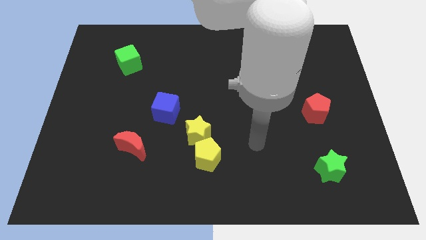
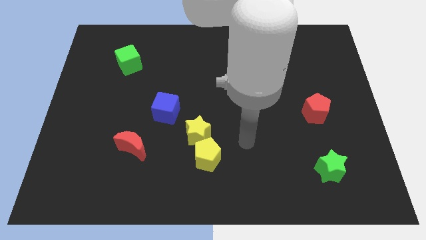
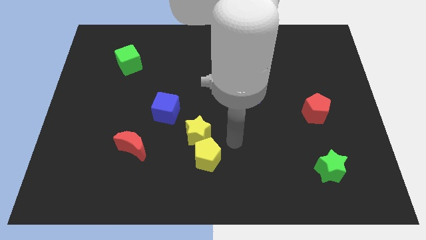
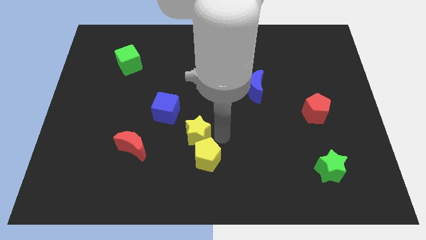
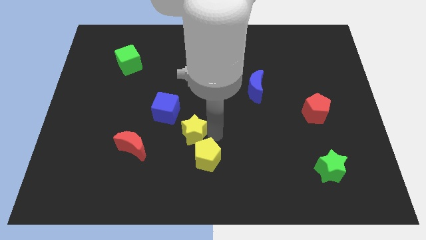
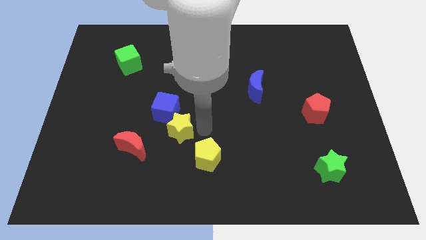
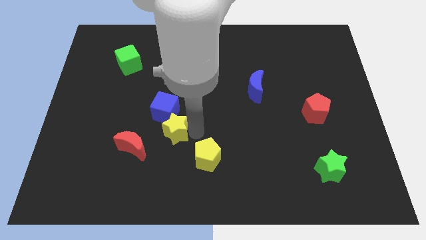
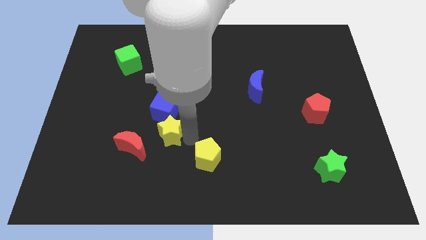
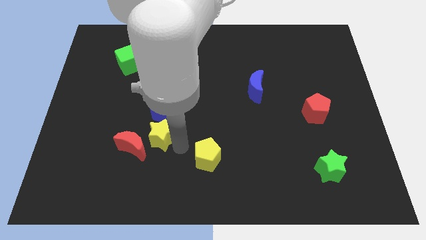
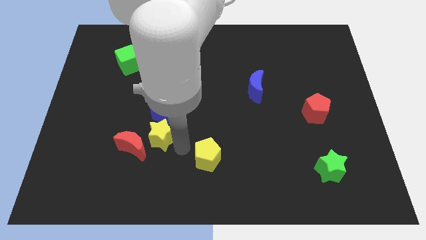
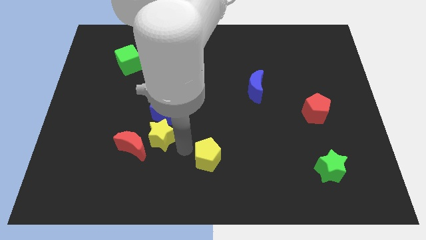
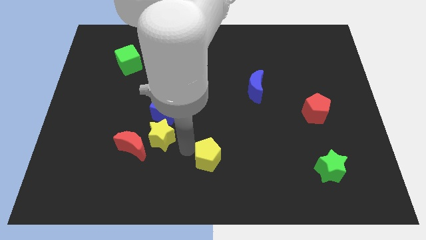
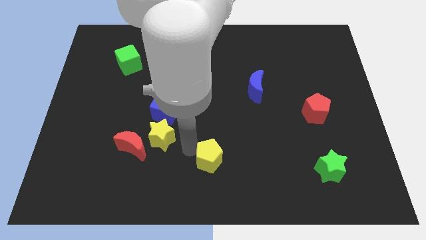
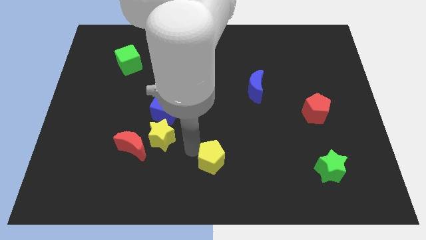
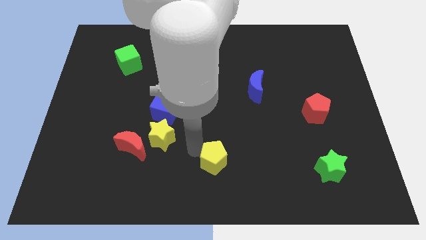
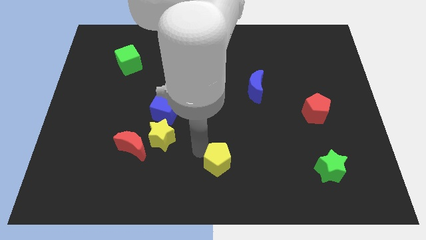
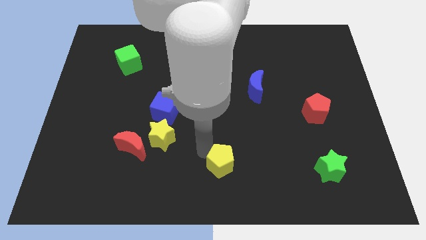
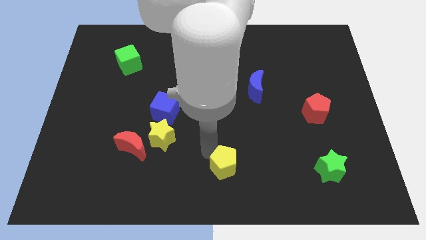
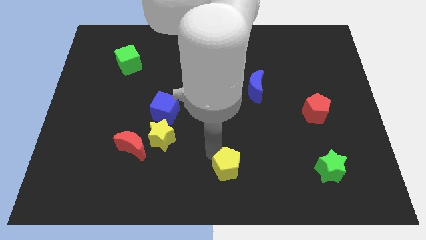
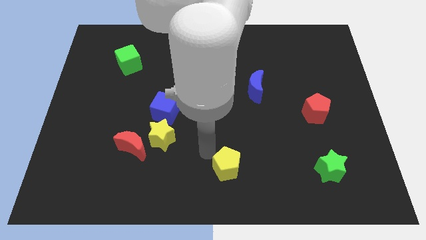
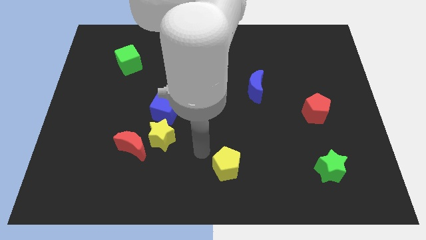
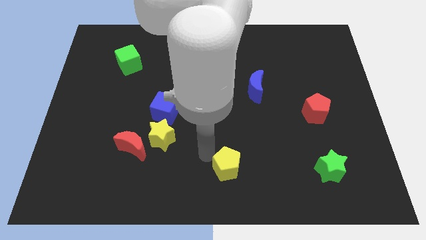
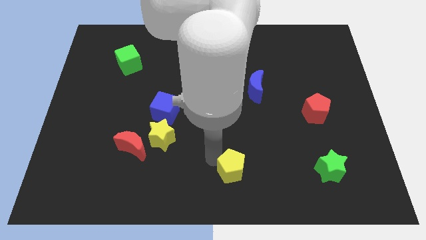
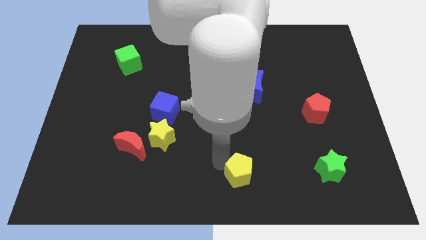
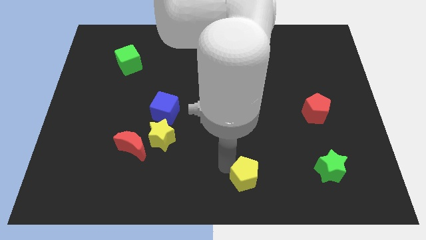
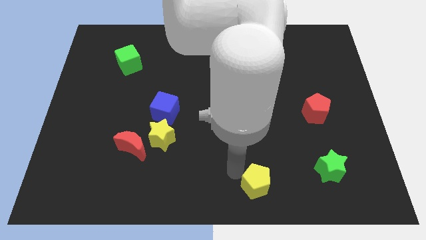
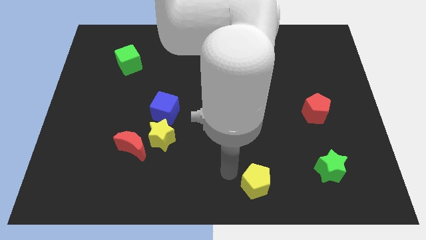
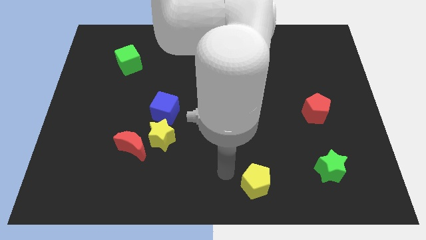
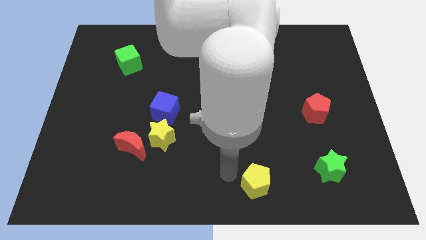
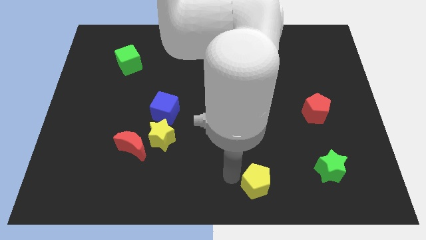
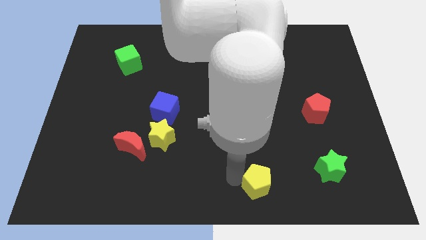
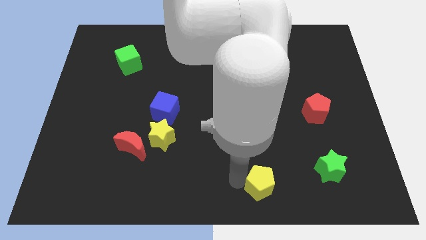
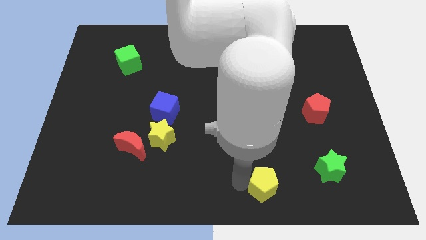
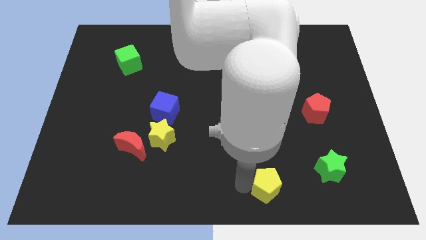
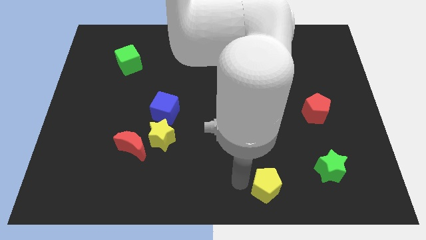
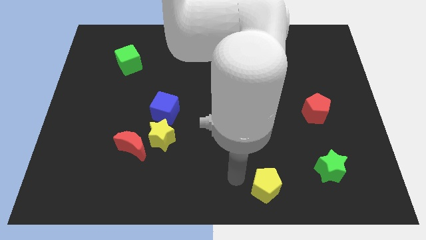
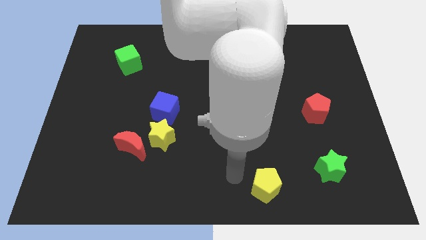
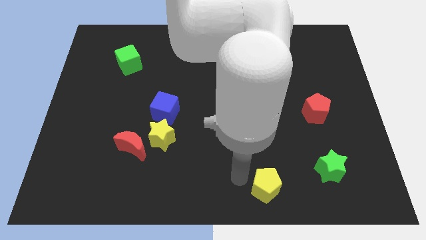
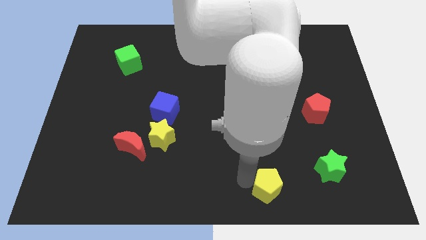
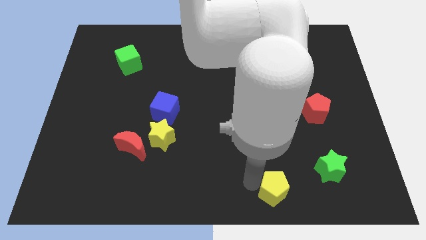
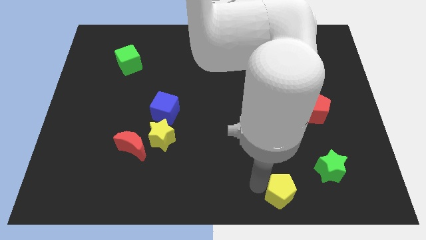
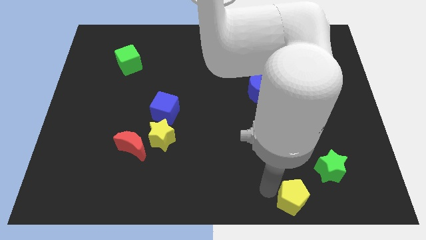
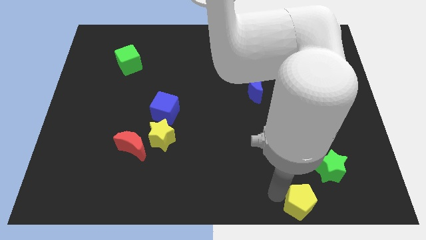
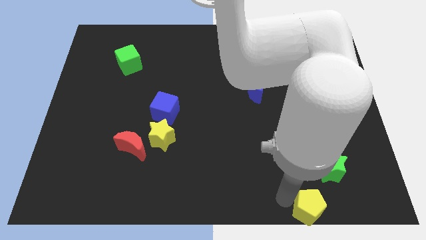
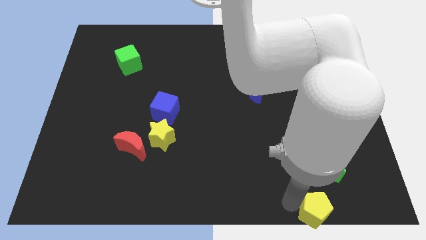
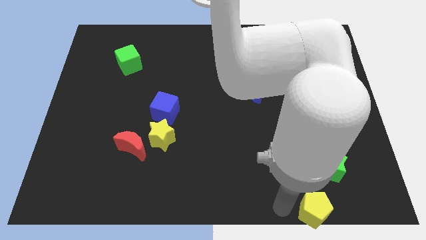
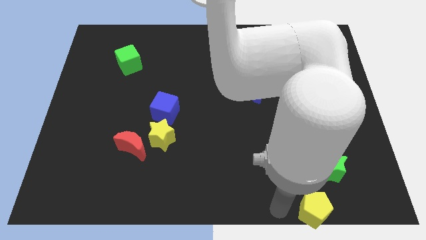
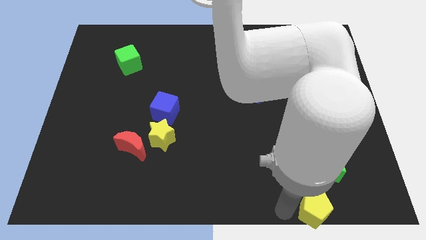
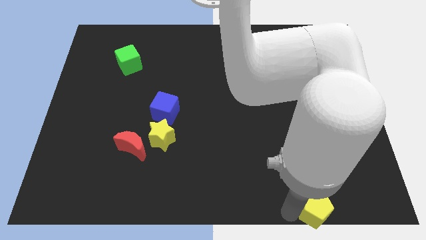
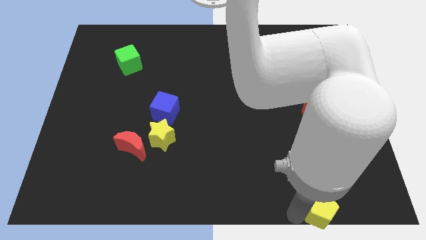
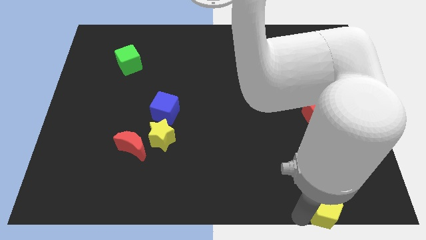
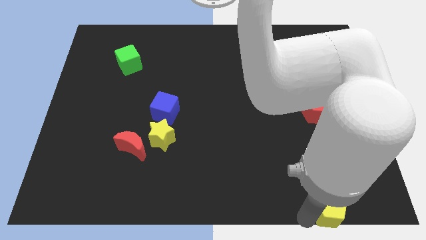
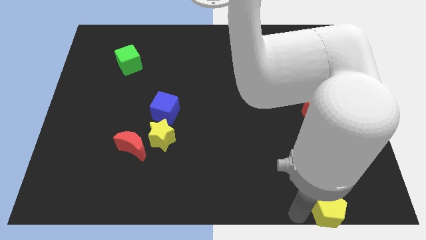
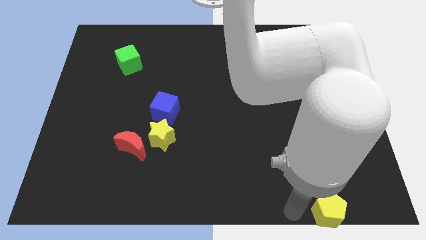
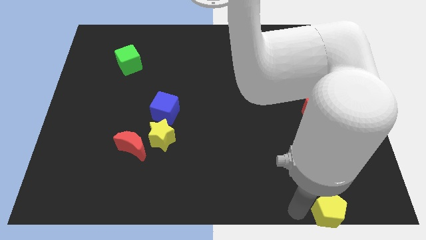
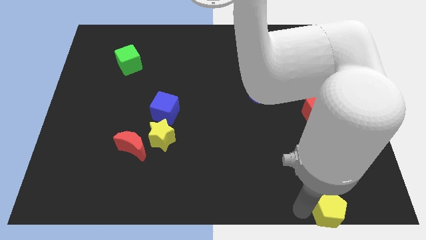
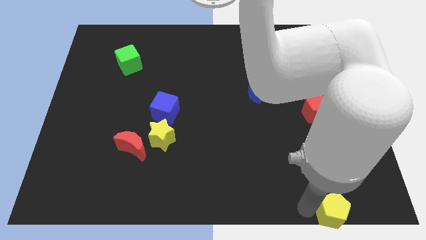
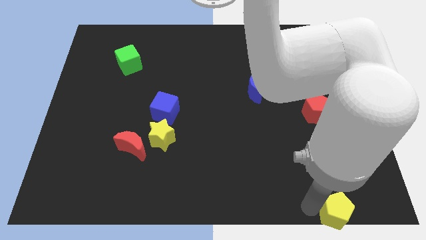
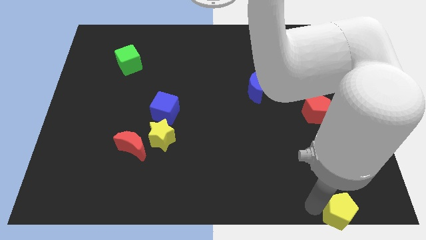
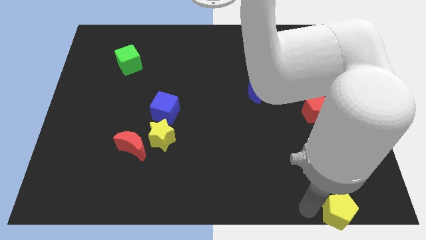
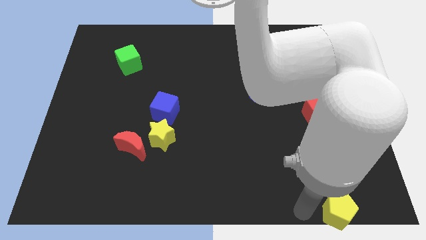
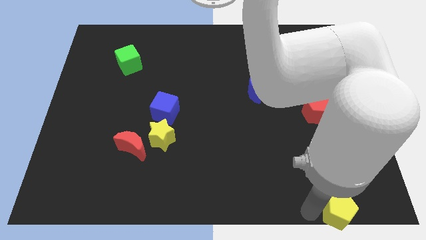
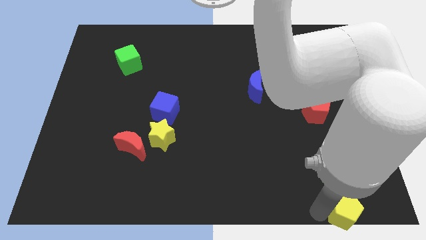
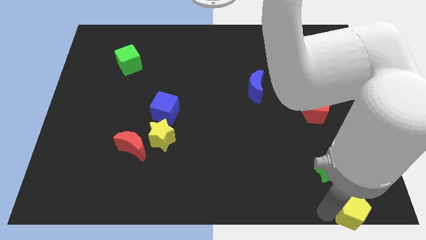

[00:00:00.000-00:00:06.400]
put the yellow pentagon to the bottom right

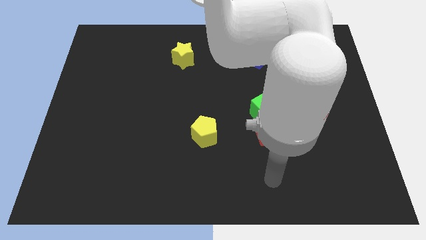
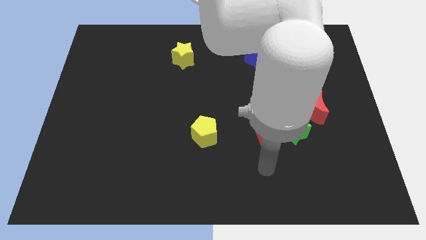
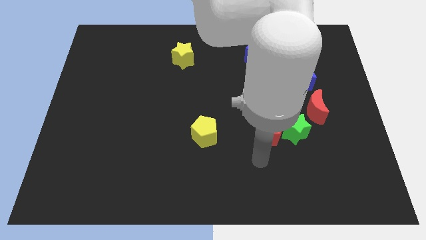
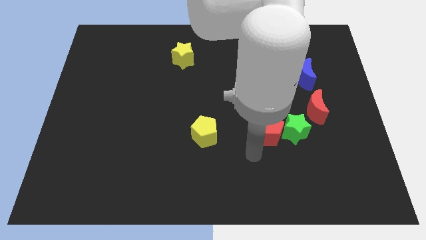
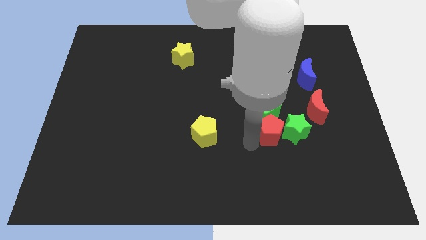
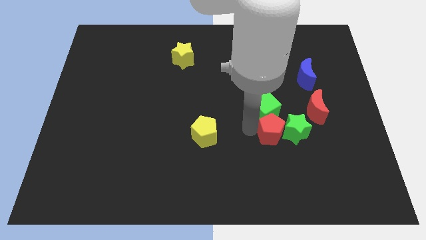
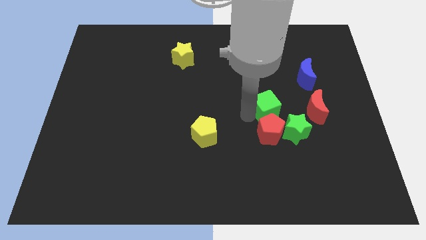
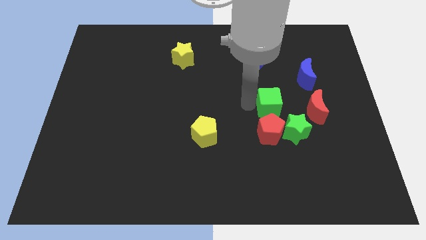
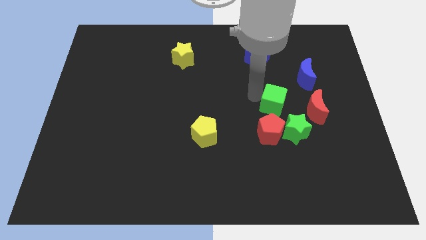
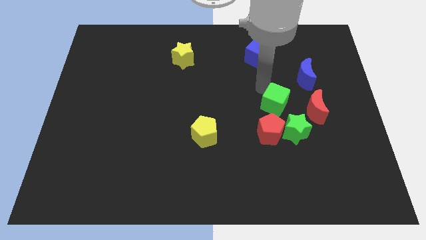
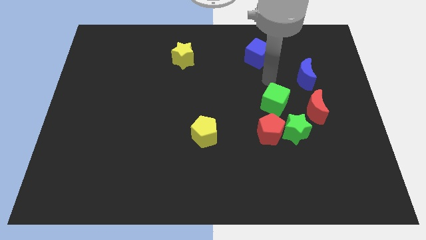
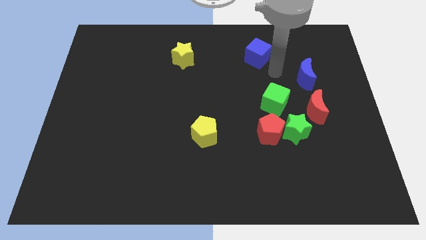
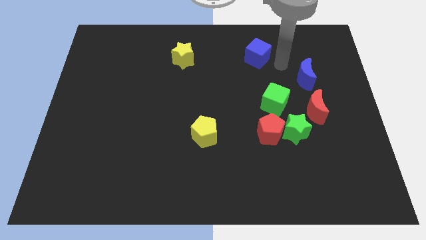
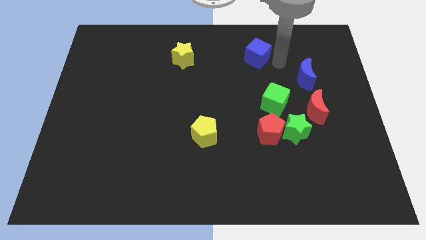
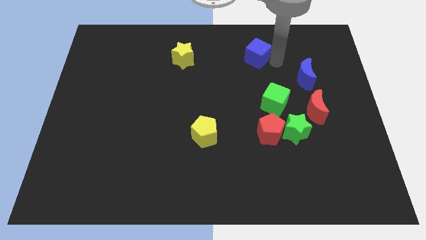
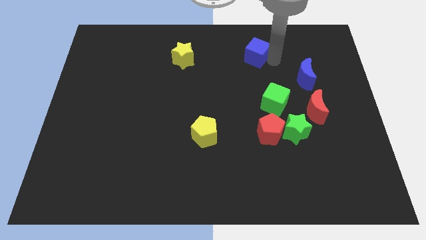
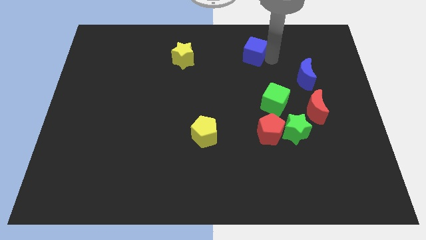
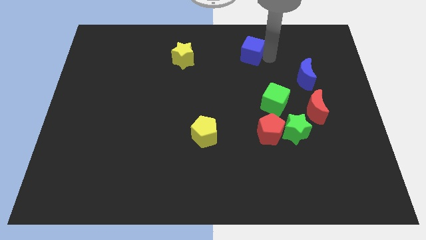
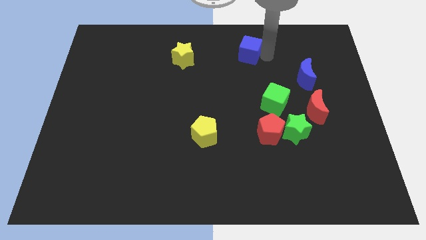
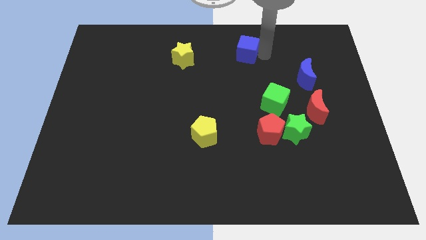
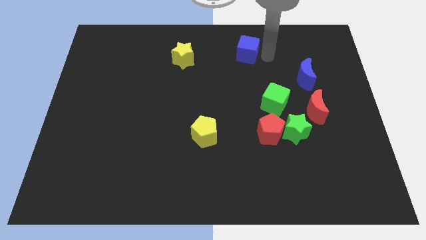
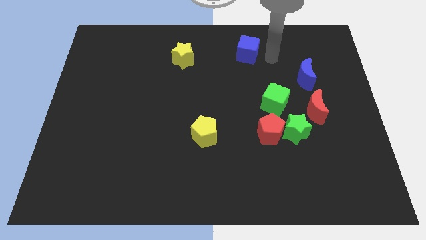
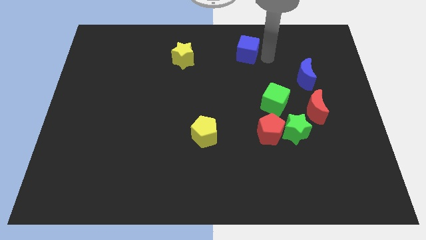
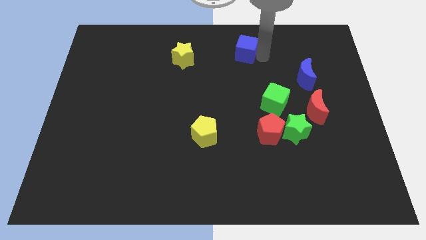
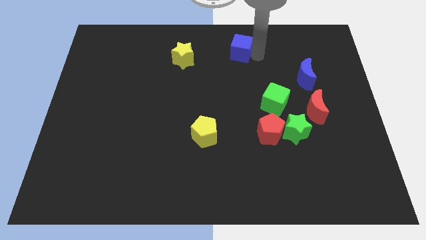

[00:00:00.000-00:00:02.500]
slide the blue cube to the towards your base
